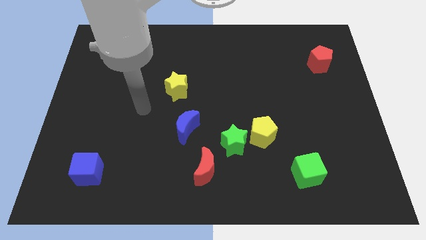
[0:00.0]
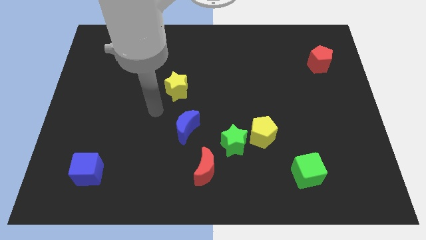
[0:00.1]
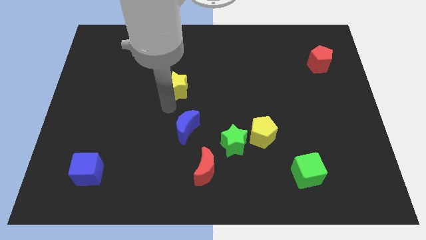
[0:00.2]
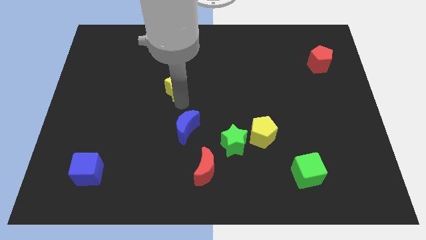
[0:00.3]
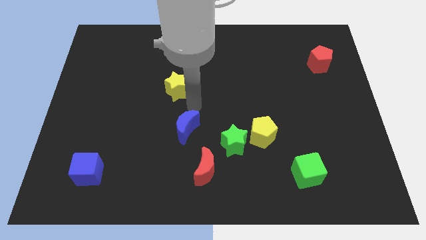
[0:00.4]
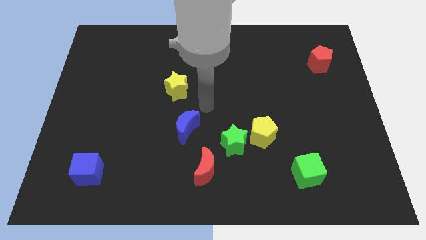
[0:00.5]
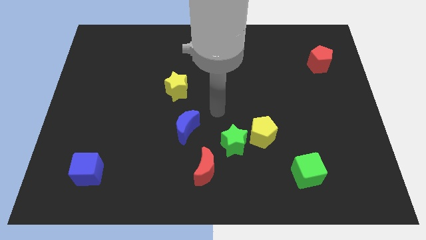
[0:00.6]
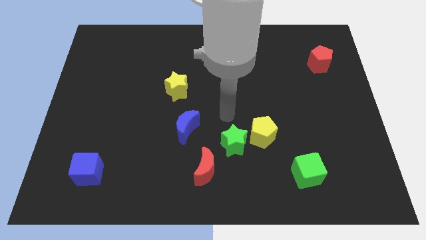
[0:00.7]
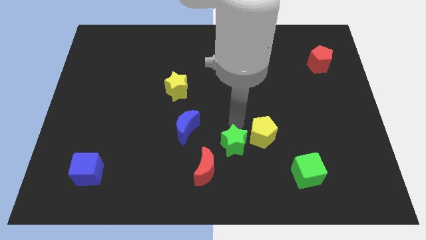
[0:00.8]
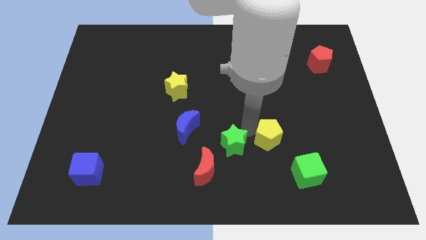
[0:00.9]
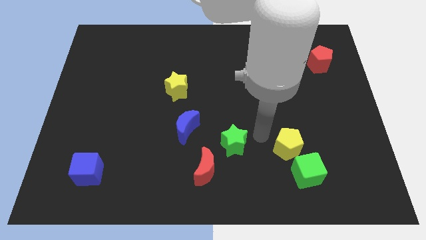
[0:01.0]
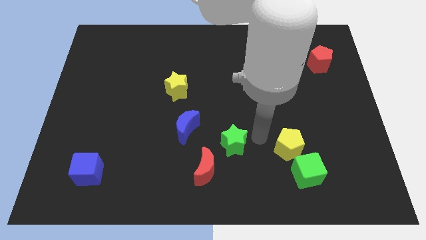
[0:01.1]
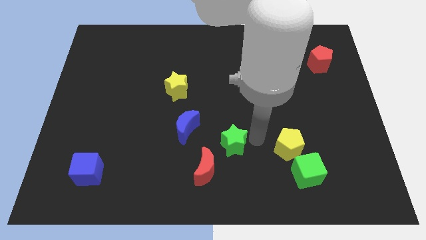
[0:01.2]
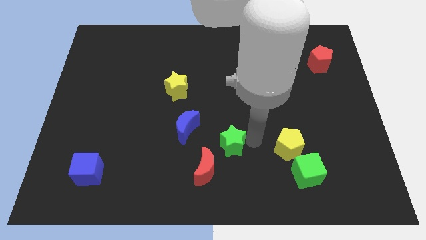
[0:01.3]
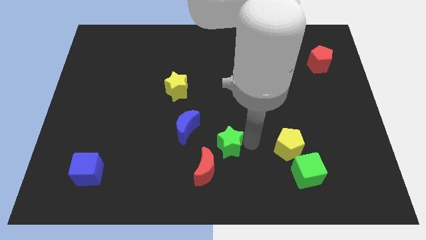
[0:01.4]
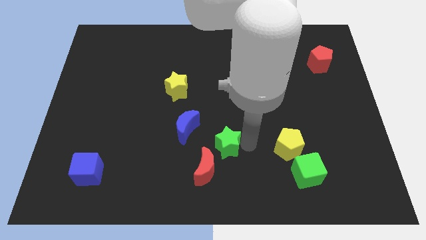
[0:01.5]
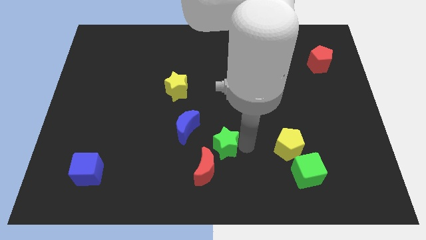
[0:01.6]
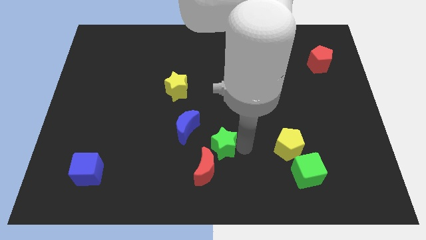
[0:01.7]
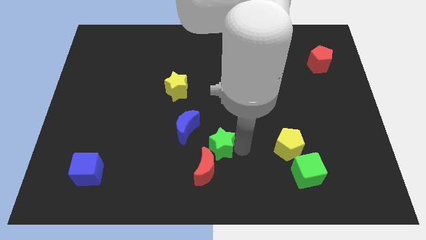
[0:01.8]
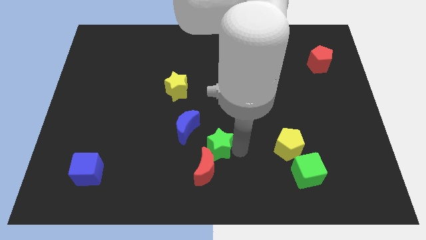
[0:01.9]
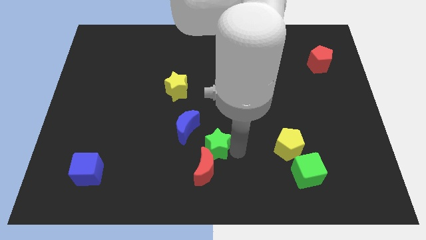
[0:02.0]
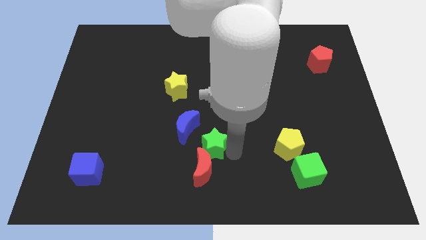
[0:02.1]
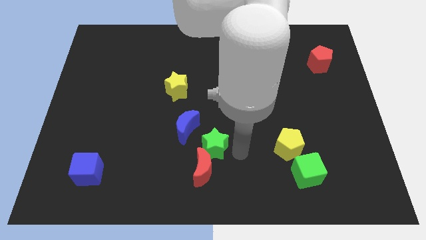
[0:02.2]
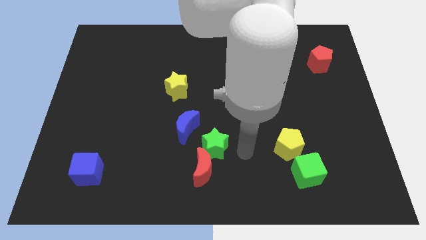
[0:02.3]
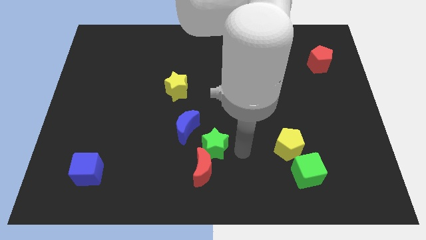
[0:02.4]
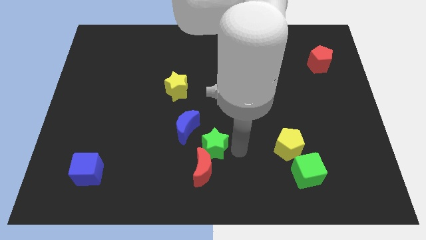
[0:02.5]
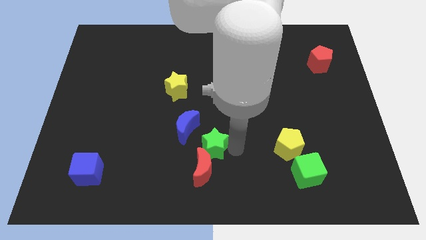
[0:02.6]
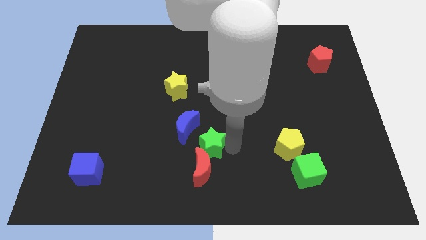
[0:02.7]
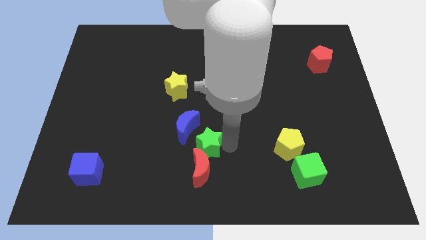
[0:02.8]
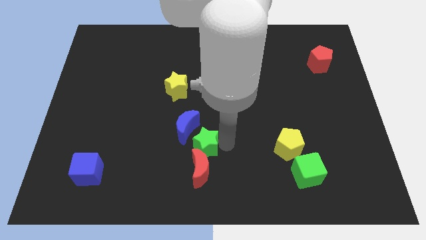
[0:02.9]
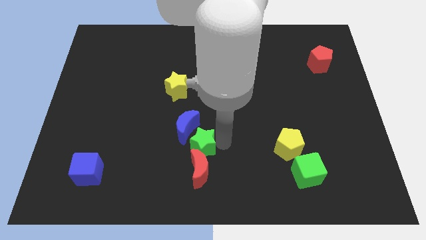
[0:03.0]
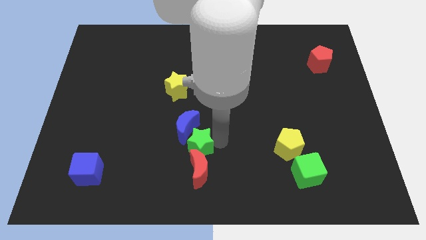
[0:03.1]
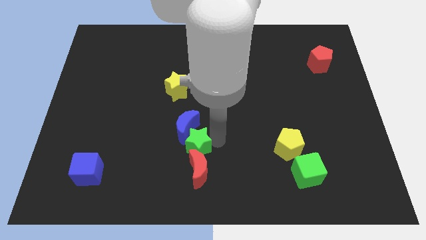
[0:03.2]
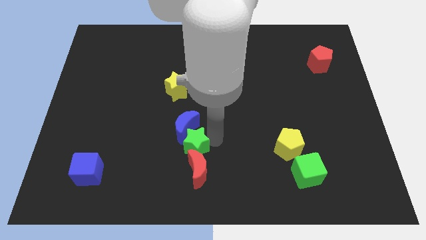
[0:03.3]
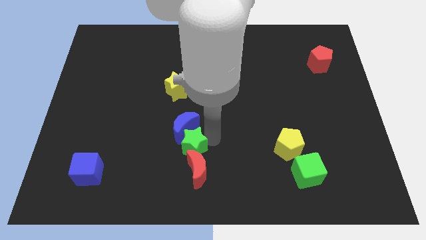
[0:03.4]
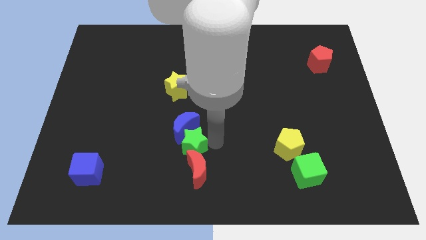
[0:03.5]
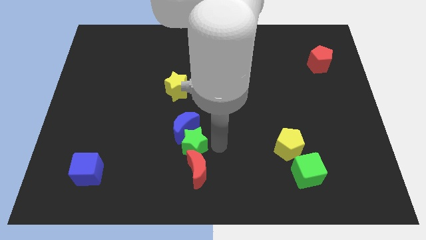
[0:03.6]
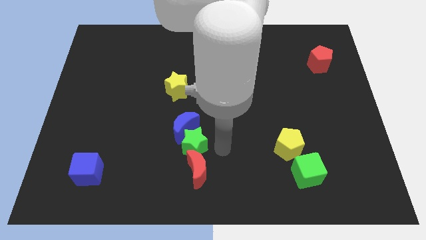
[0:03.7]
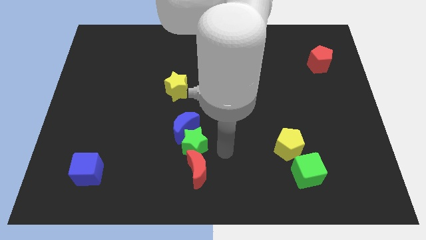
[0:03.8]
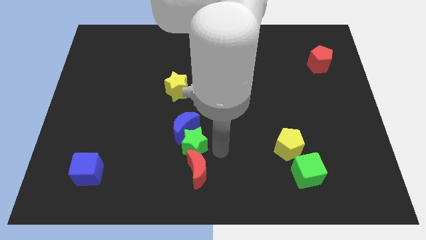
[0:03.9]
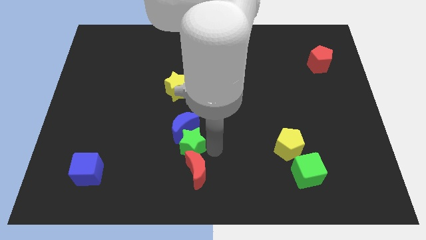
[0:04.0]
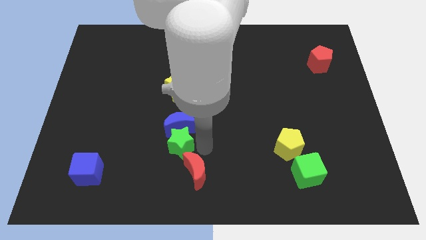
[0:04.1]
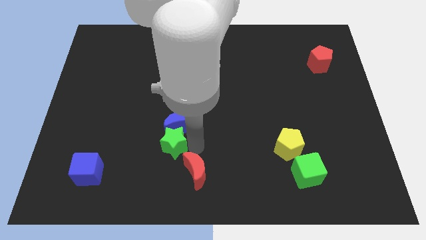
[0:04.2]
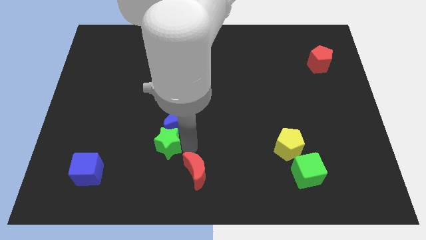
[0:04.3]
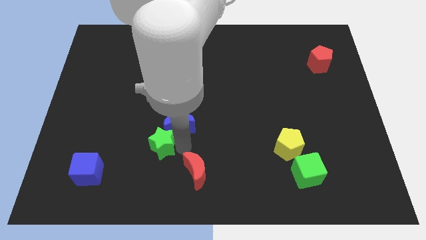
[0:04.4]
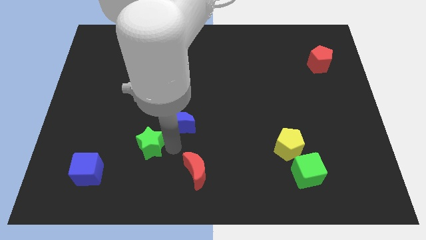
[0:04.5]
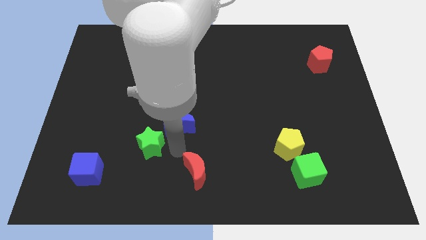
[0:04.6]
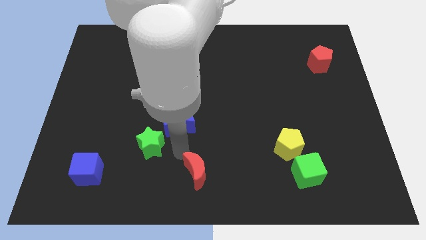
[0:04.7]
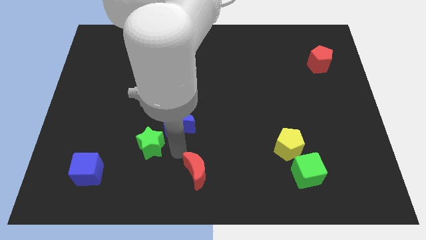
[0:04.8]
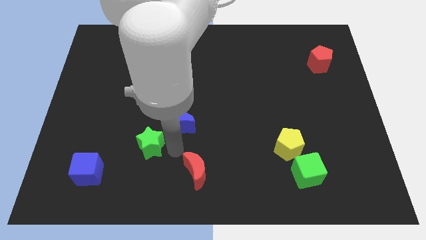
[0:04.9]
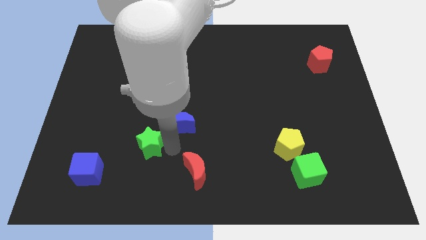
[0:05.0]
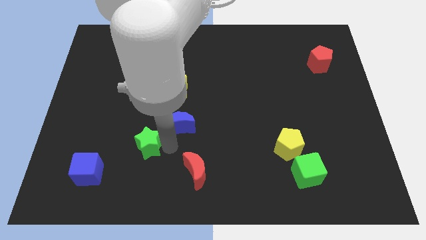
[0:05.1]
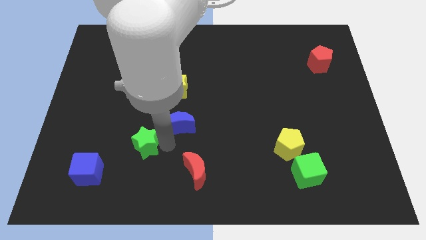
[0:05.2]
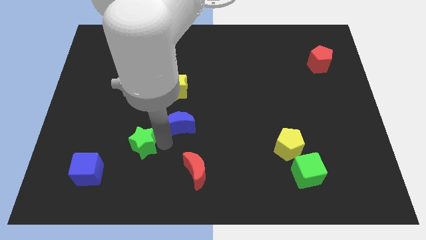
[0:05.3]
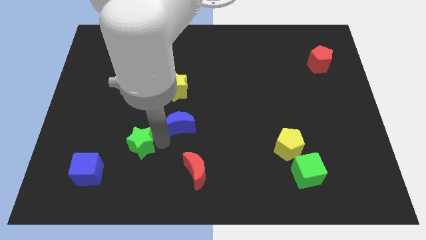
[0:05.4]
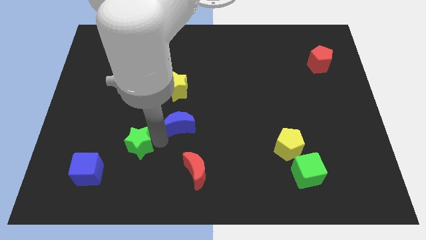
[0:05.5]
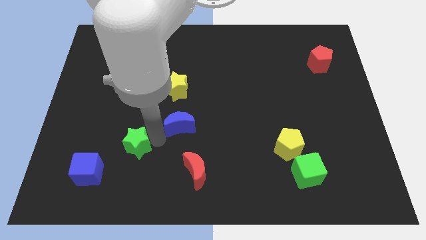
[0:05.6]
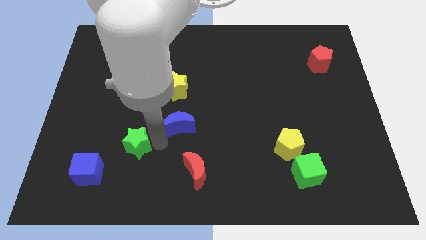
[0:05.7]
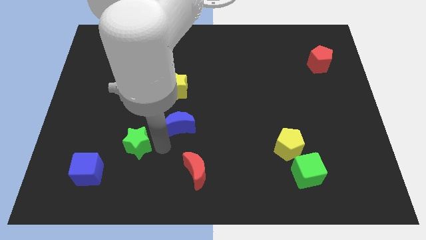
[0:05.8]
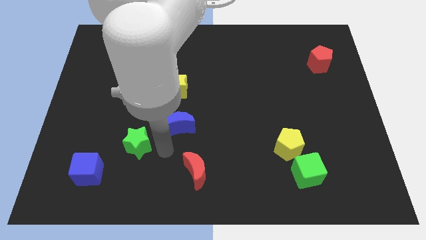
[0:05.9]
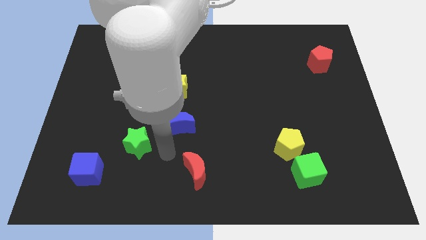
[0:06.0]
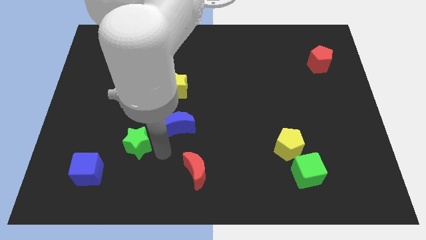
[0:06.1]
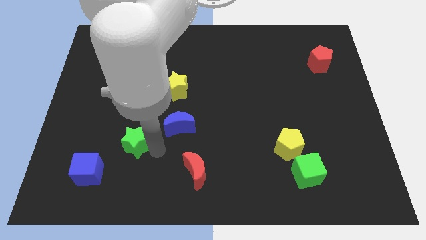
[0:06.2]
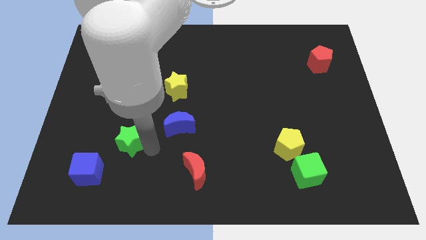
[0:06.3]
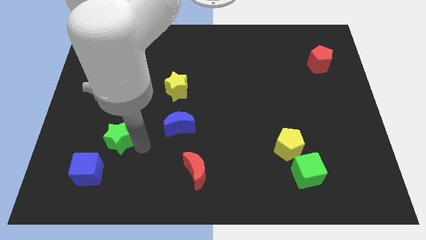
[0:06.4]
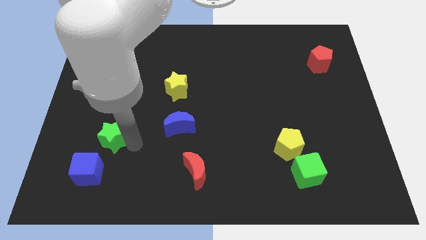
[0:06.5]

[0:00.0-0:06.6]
put the green star to the top of the blue cube

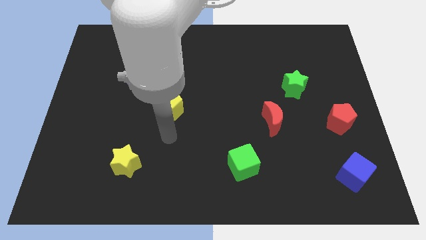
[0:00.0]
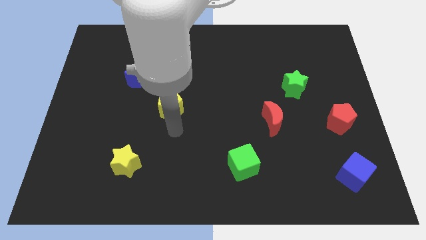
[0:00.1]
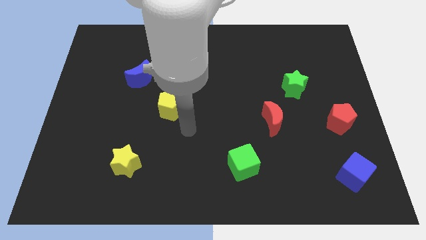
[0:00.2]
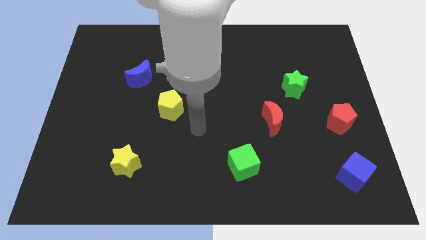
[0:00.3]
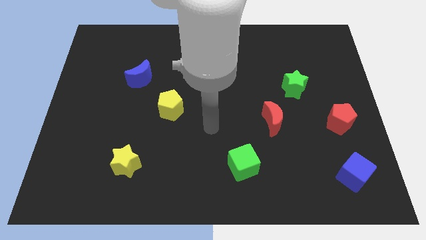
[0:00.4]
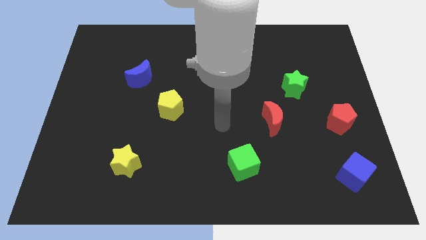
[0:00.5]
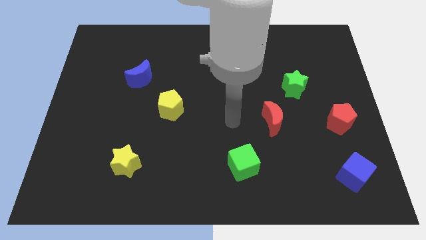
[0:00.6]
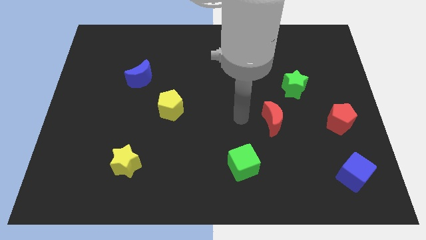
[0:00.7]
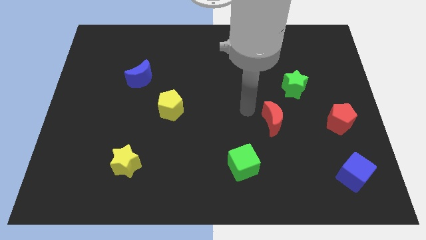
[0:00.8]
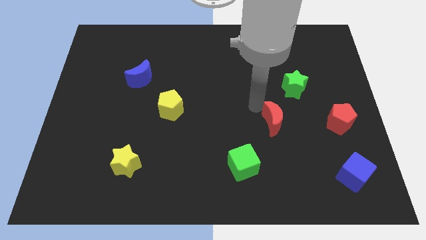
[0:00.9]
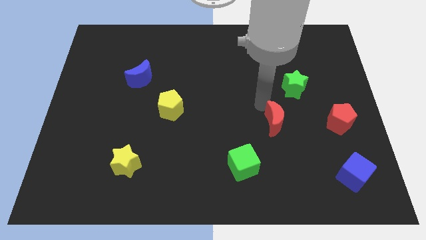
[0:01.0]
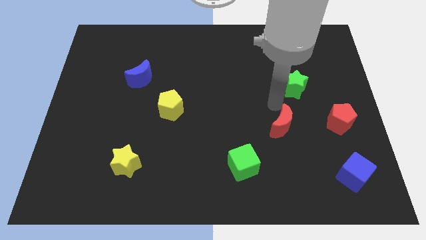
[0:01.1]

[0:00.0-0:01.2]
push the green star to the top side of the red moon
